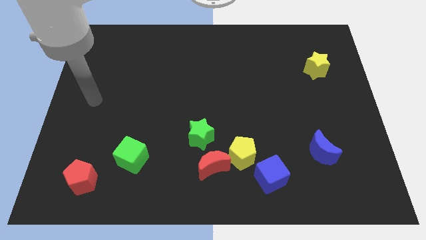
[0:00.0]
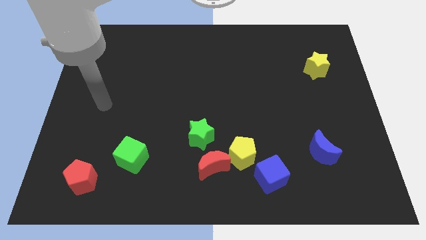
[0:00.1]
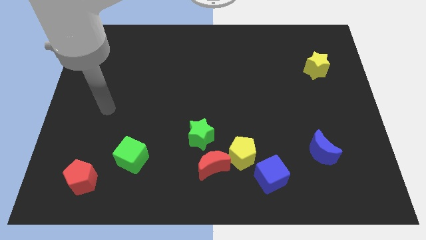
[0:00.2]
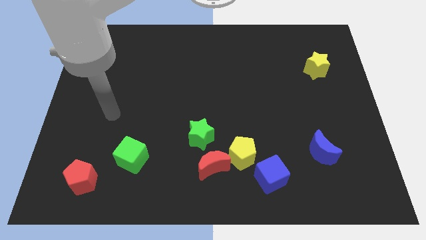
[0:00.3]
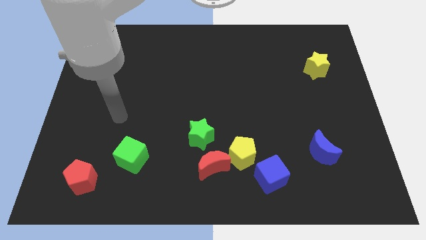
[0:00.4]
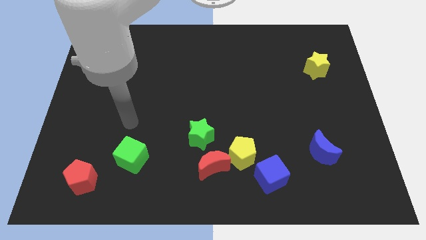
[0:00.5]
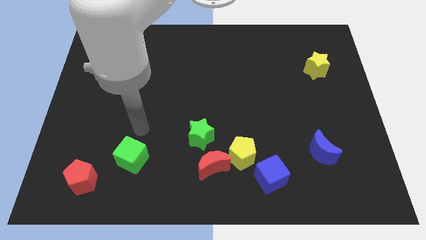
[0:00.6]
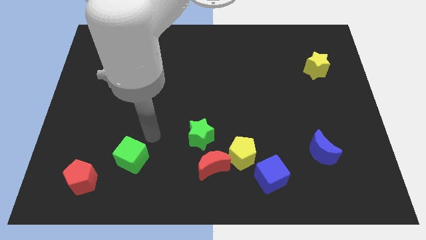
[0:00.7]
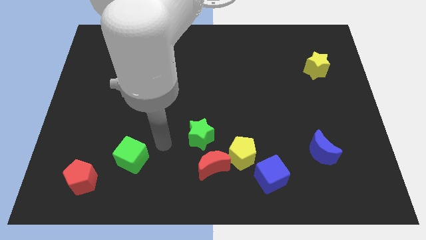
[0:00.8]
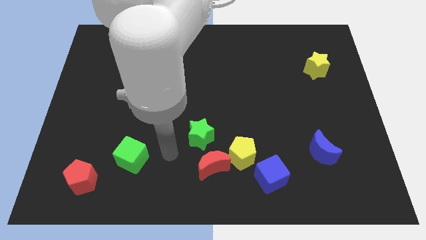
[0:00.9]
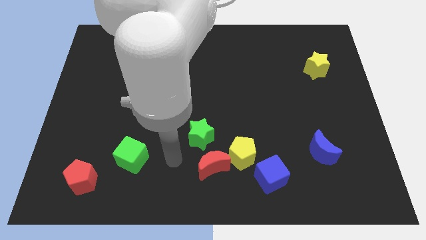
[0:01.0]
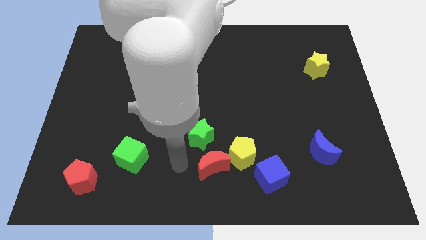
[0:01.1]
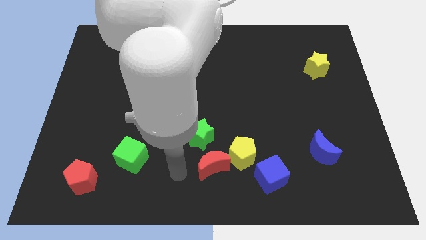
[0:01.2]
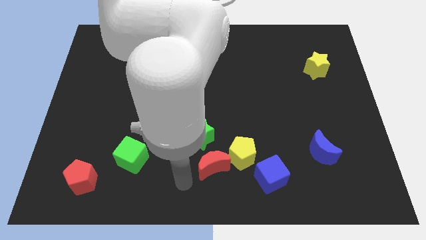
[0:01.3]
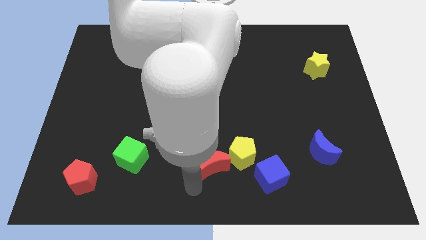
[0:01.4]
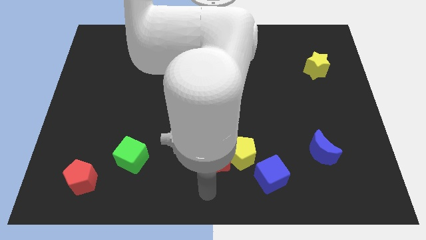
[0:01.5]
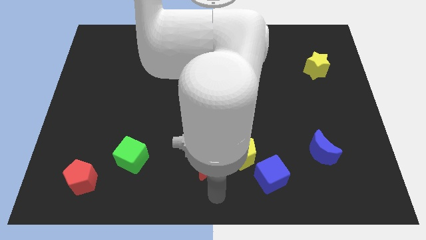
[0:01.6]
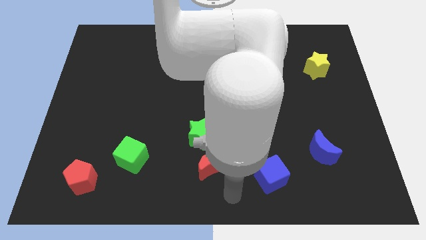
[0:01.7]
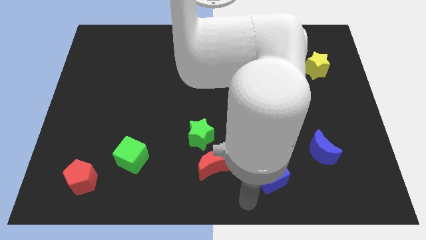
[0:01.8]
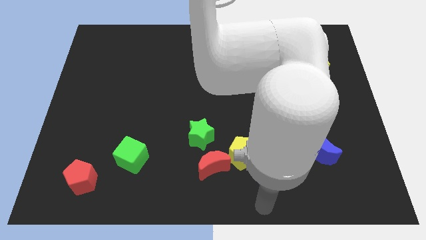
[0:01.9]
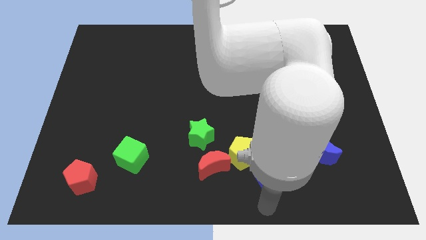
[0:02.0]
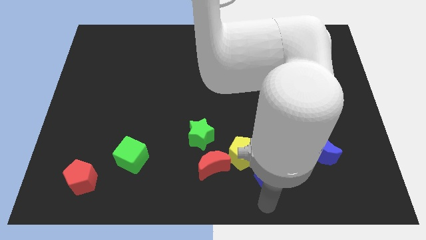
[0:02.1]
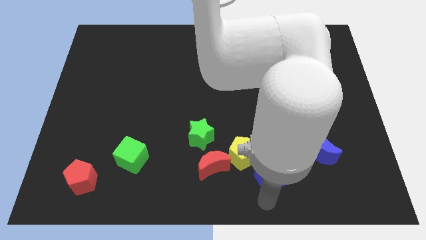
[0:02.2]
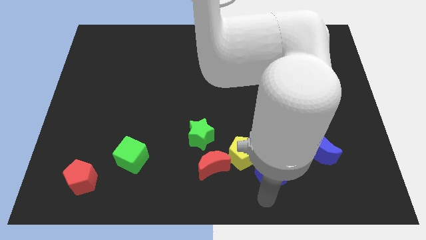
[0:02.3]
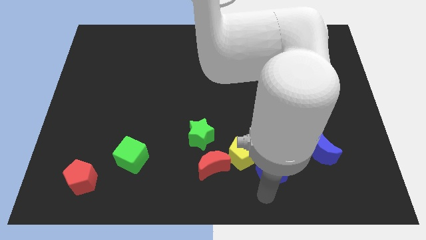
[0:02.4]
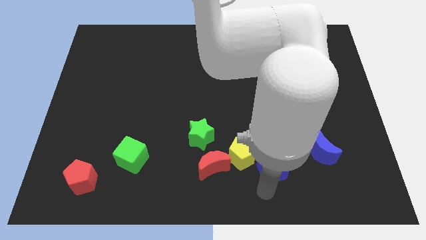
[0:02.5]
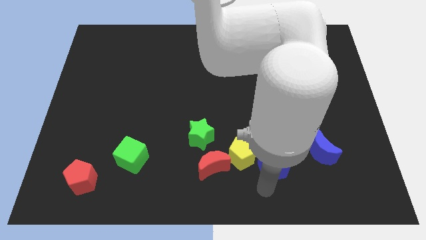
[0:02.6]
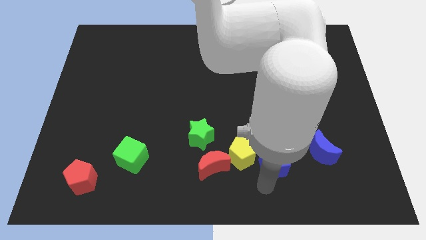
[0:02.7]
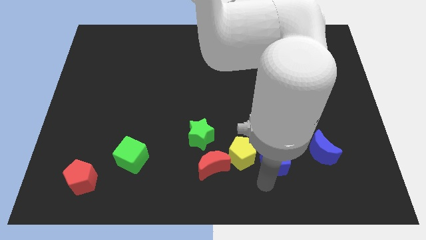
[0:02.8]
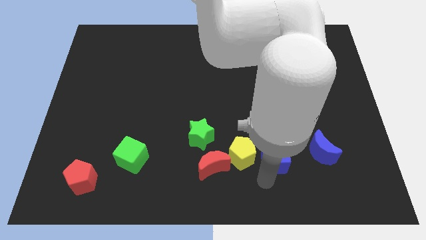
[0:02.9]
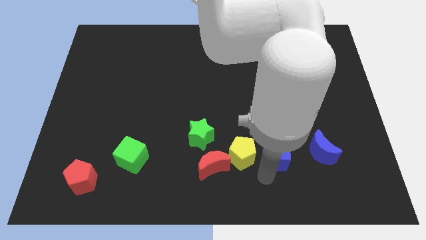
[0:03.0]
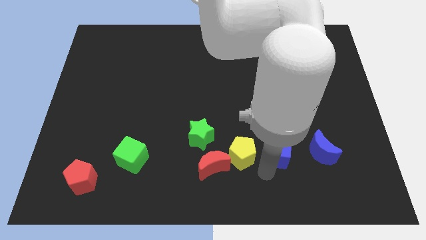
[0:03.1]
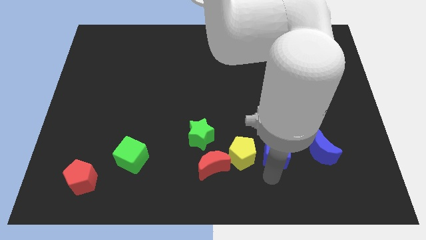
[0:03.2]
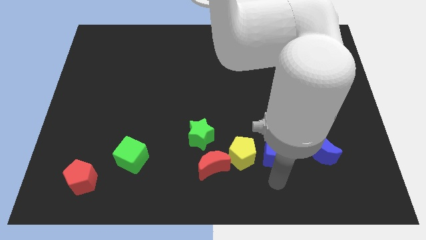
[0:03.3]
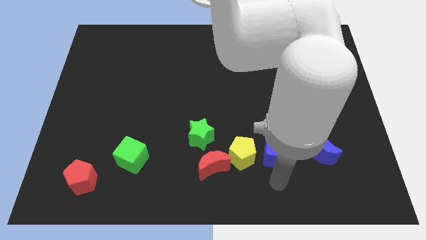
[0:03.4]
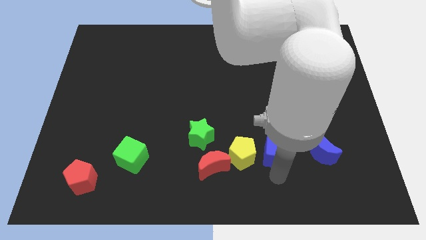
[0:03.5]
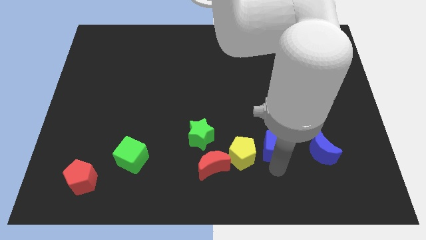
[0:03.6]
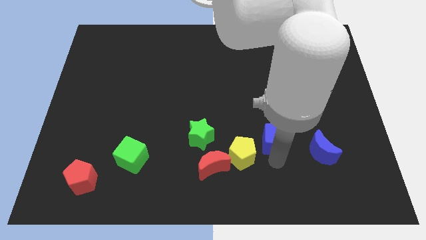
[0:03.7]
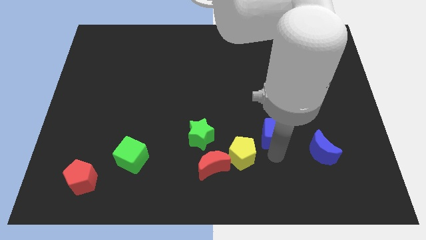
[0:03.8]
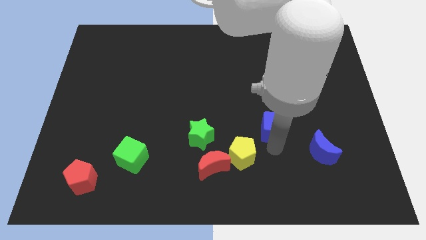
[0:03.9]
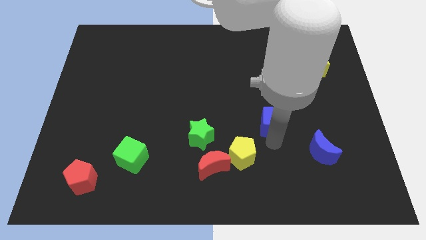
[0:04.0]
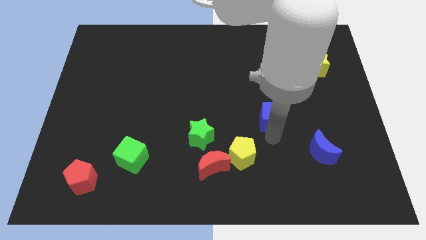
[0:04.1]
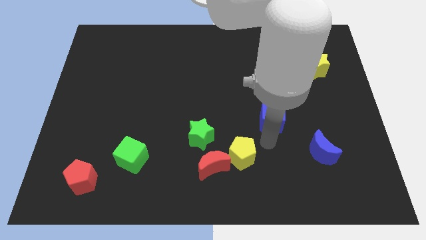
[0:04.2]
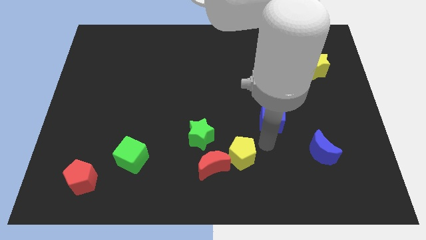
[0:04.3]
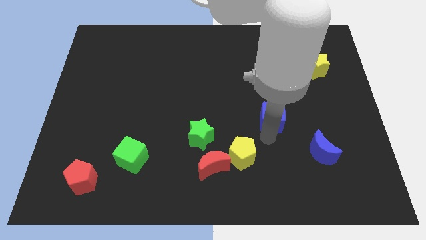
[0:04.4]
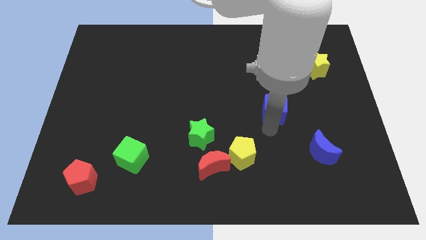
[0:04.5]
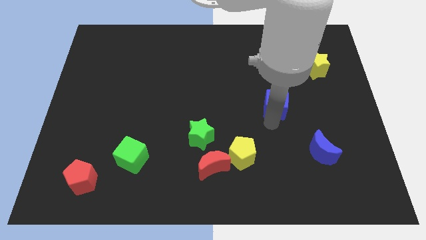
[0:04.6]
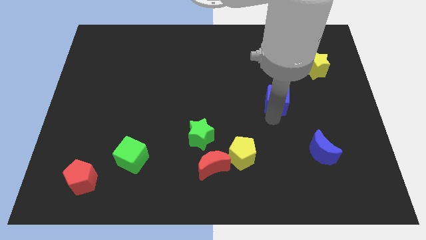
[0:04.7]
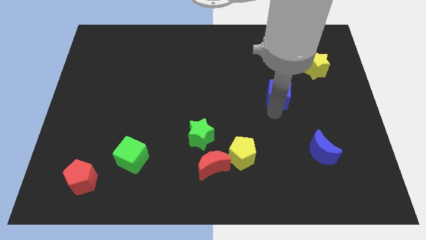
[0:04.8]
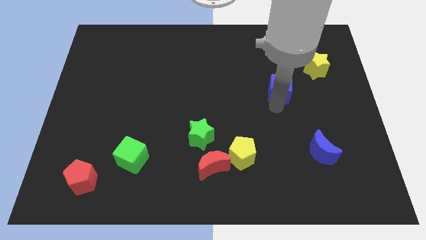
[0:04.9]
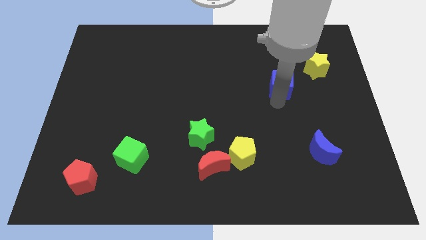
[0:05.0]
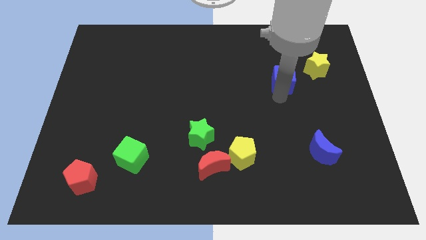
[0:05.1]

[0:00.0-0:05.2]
slide the blue cube to the left side of the yellow star

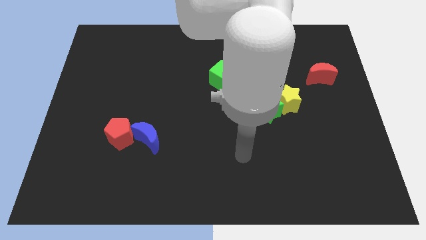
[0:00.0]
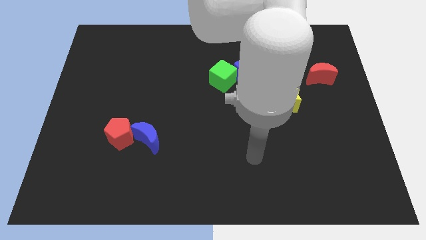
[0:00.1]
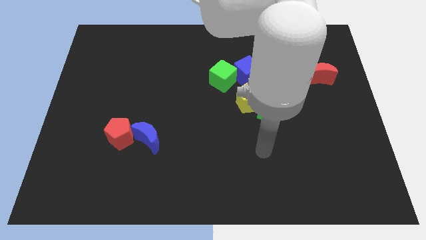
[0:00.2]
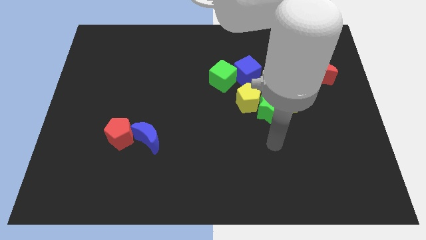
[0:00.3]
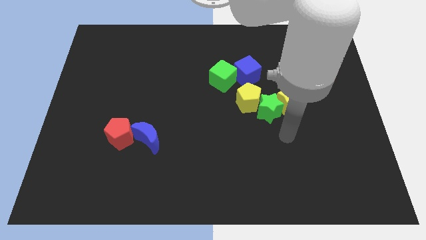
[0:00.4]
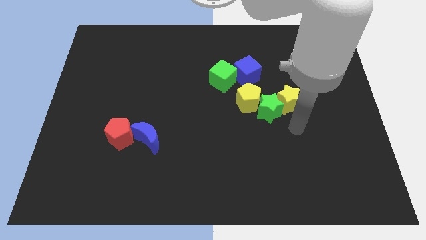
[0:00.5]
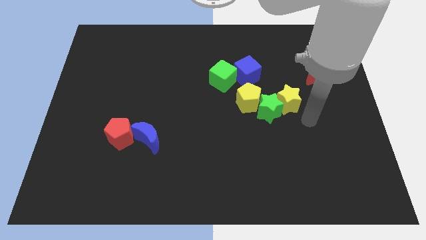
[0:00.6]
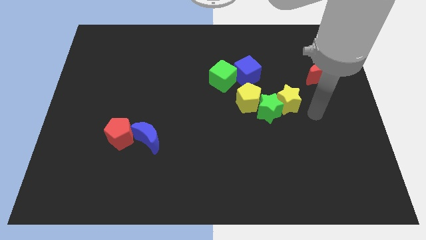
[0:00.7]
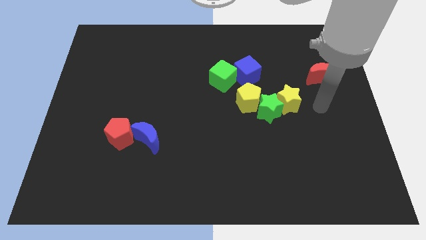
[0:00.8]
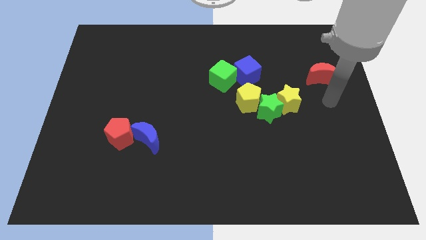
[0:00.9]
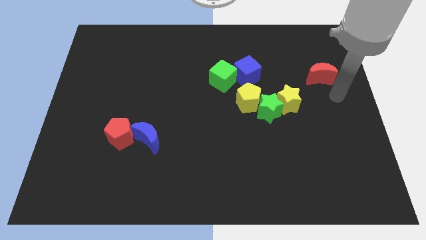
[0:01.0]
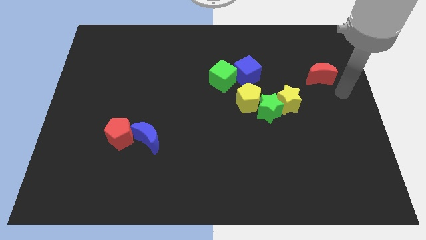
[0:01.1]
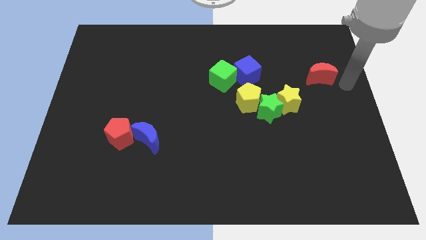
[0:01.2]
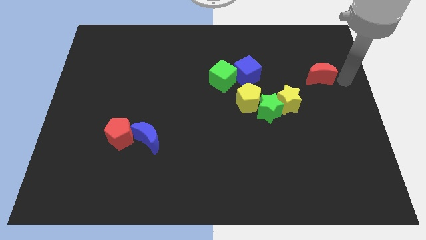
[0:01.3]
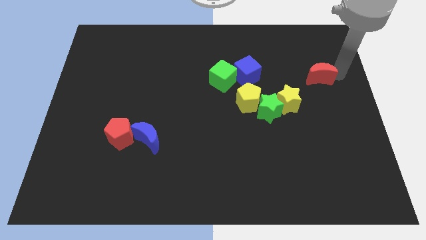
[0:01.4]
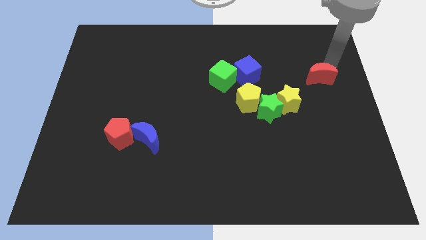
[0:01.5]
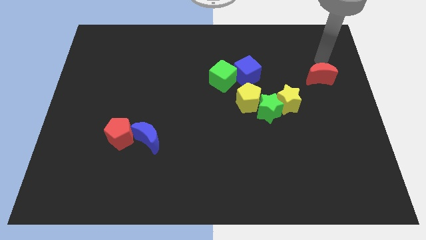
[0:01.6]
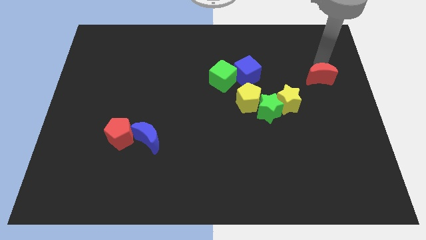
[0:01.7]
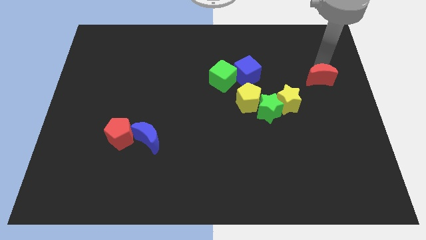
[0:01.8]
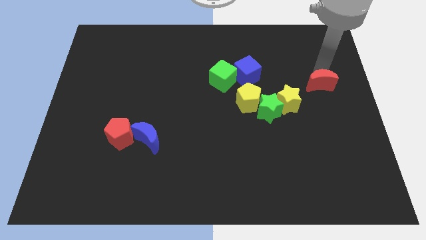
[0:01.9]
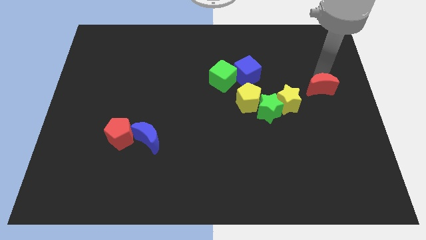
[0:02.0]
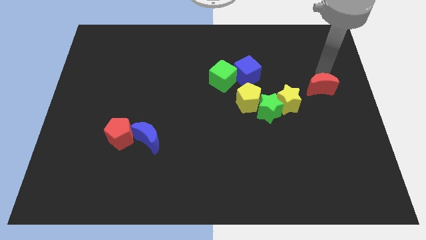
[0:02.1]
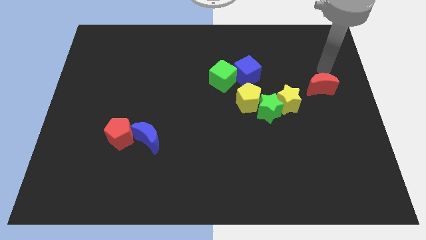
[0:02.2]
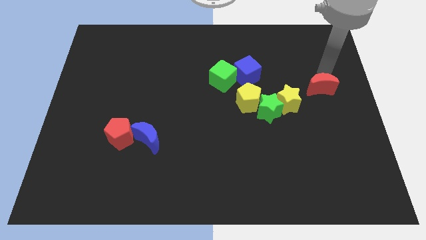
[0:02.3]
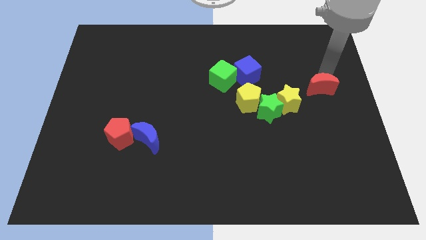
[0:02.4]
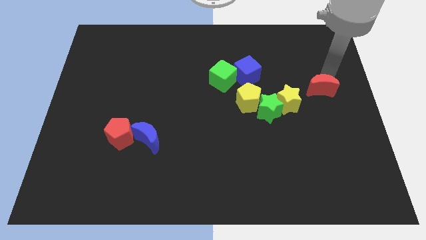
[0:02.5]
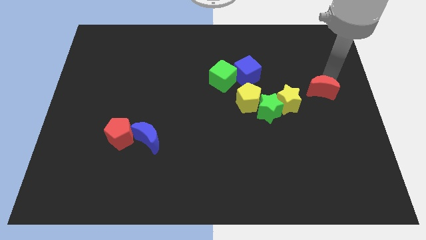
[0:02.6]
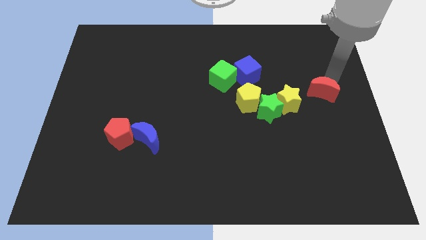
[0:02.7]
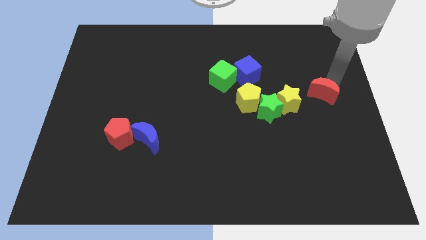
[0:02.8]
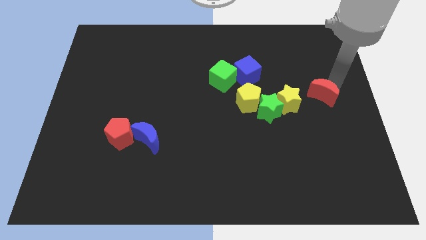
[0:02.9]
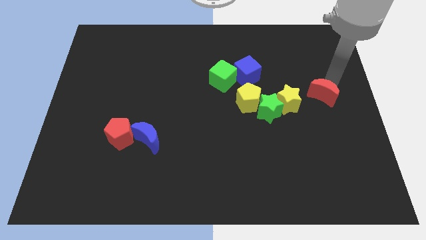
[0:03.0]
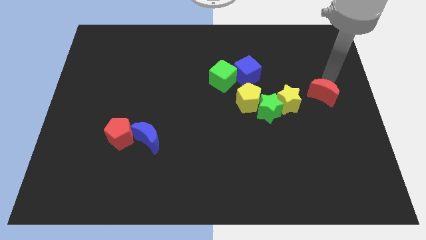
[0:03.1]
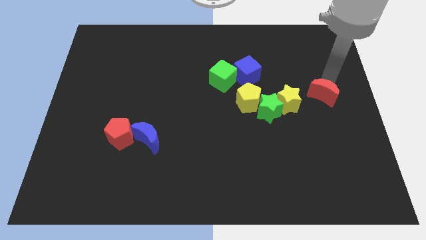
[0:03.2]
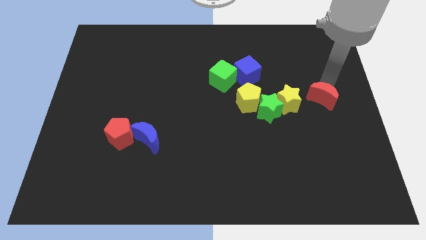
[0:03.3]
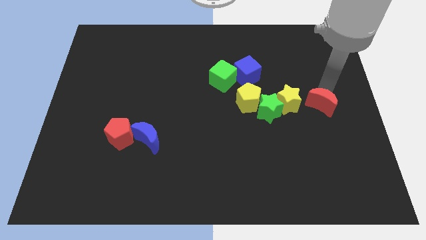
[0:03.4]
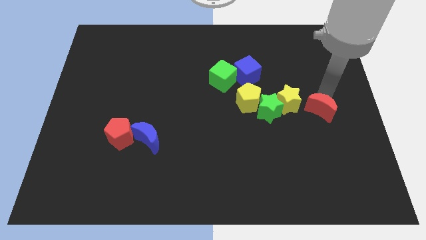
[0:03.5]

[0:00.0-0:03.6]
push the red moon diagonally down and to the right of the yellow star
